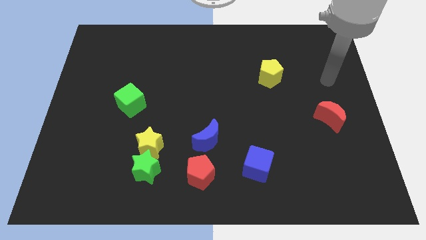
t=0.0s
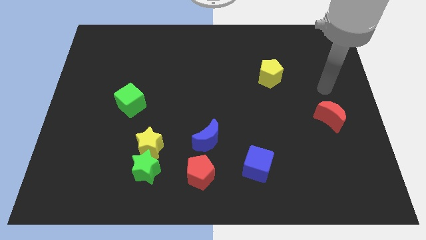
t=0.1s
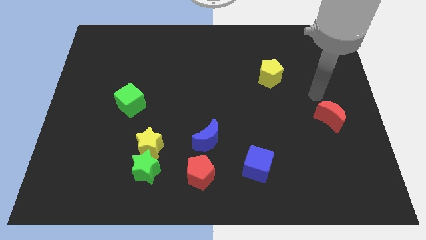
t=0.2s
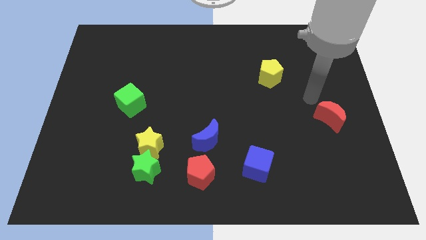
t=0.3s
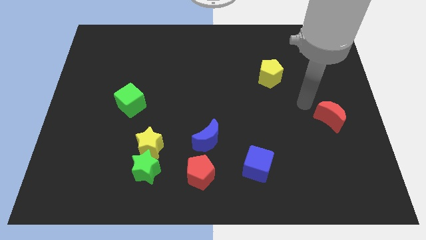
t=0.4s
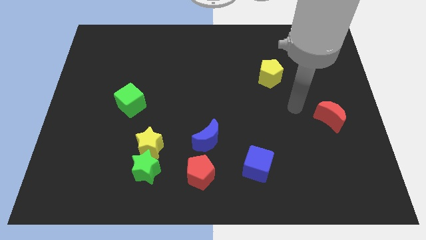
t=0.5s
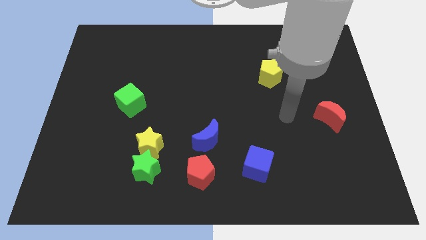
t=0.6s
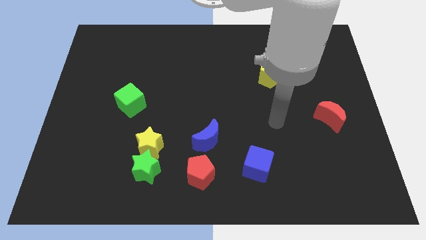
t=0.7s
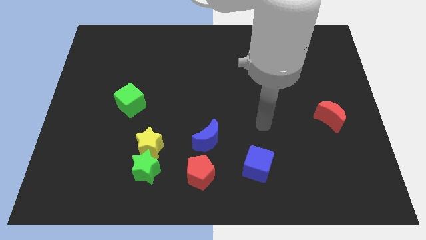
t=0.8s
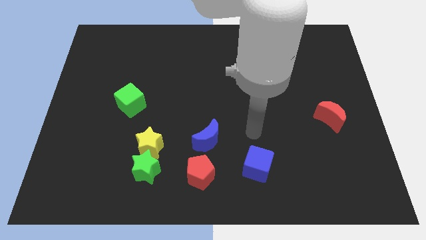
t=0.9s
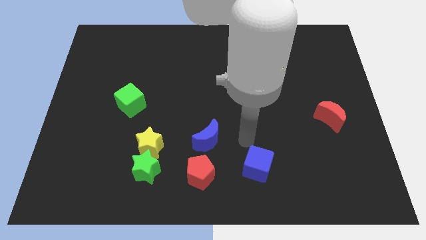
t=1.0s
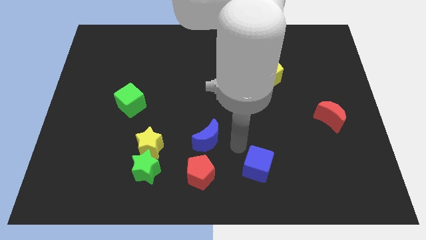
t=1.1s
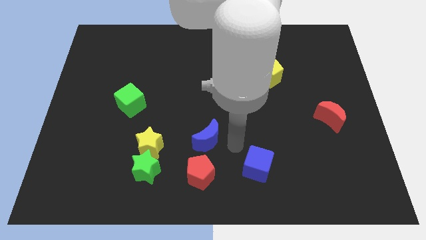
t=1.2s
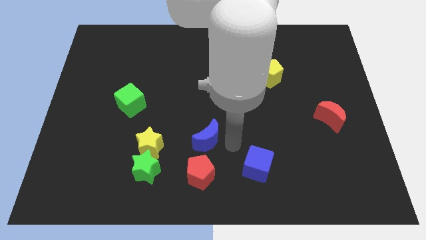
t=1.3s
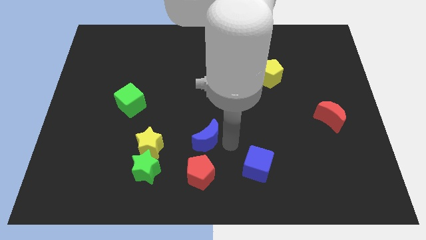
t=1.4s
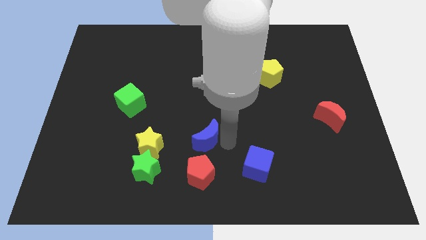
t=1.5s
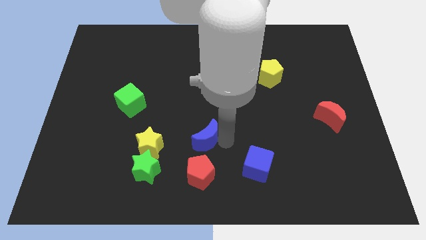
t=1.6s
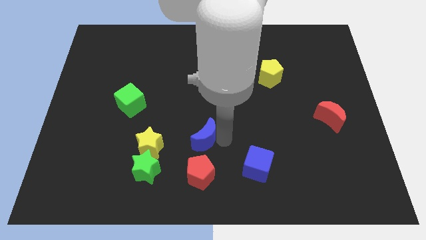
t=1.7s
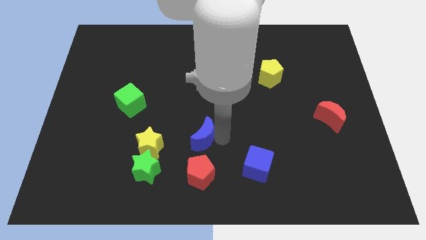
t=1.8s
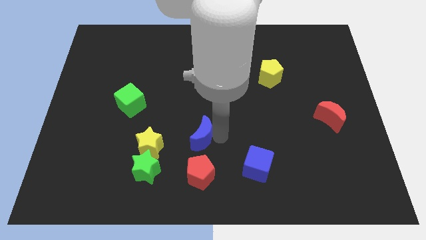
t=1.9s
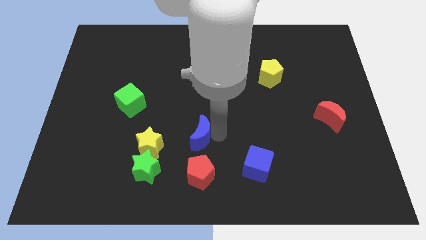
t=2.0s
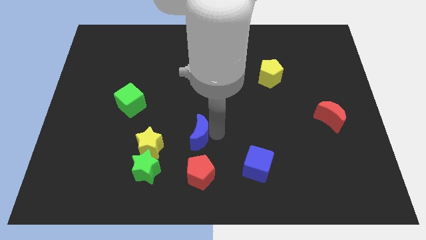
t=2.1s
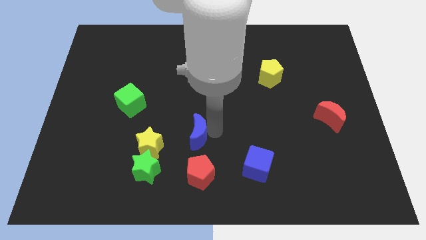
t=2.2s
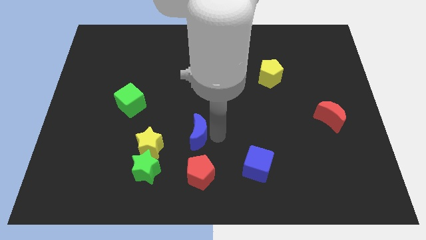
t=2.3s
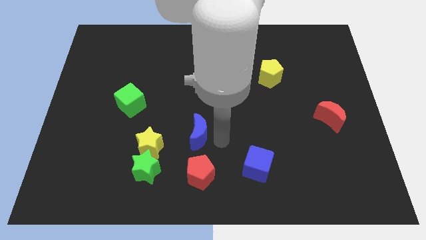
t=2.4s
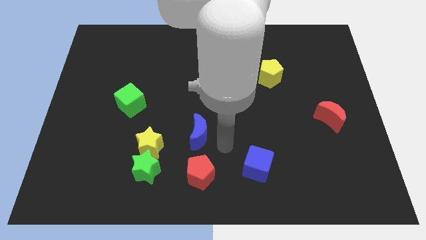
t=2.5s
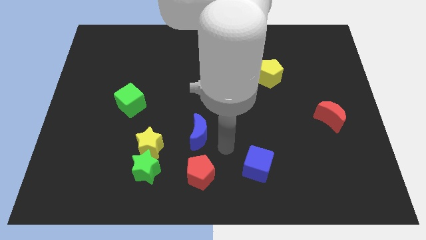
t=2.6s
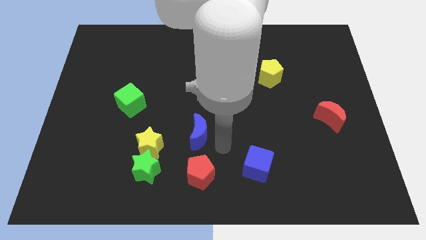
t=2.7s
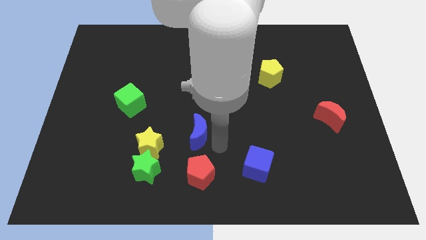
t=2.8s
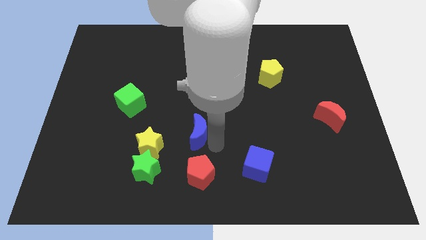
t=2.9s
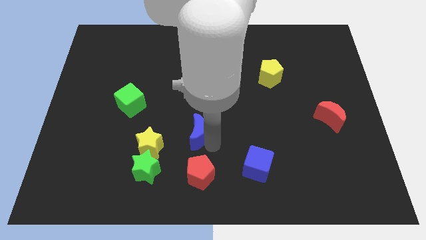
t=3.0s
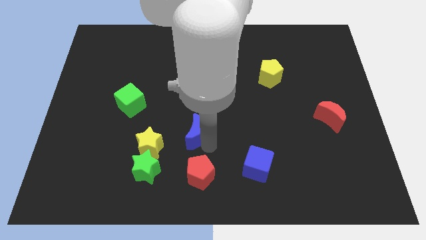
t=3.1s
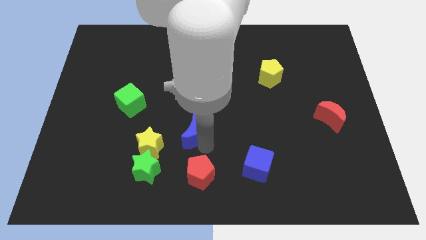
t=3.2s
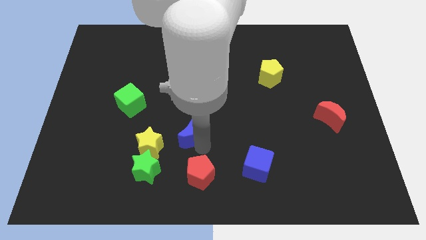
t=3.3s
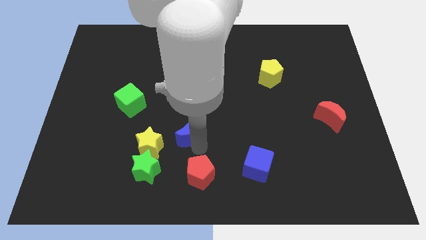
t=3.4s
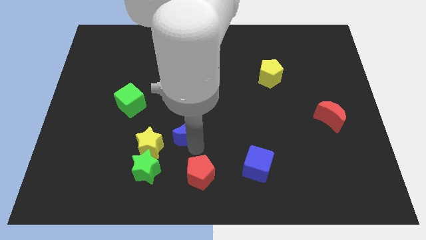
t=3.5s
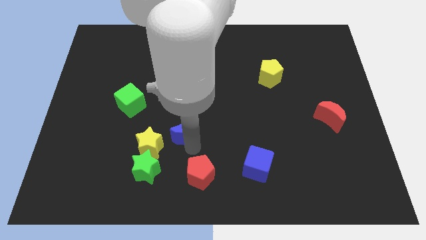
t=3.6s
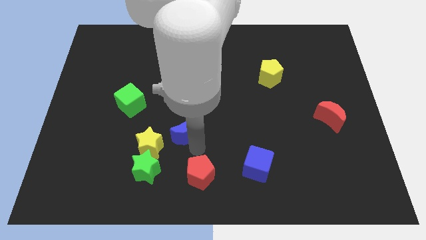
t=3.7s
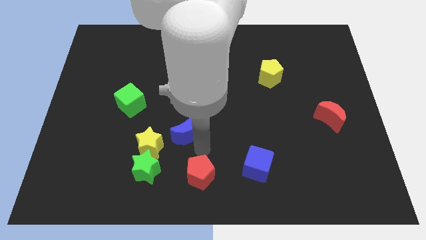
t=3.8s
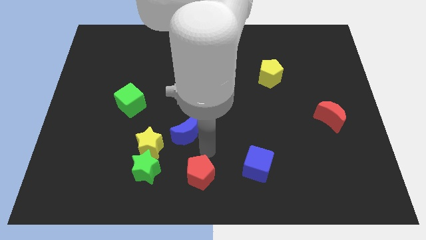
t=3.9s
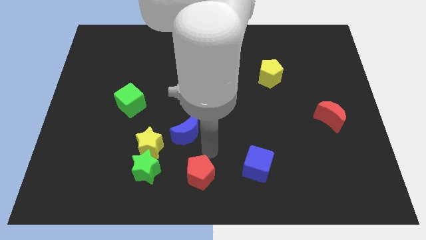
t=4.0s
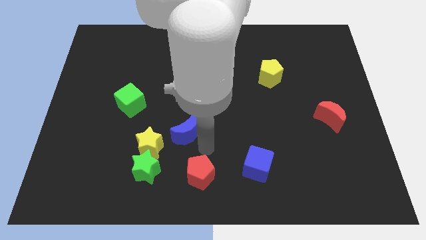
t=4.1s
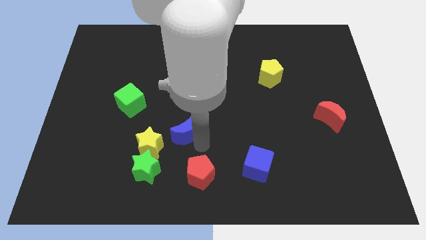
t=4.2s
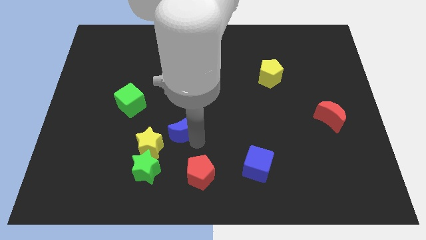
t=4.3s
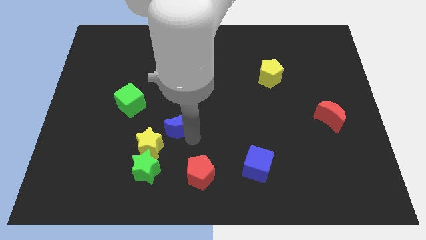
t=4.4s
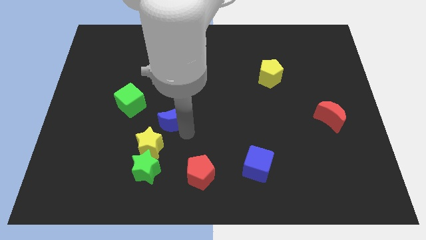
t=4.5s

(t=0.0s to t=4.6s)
move the blue moon to the top of the yellow star

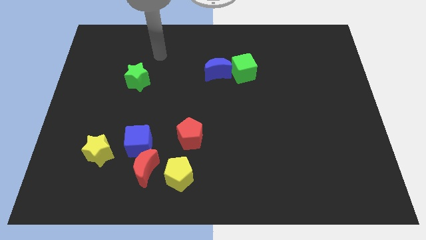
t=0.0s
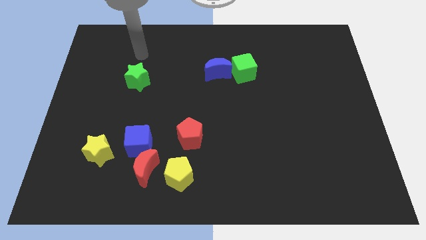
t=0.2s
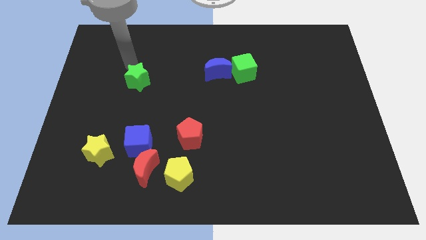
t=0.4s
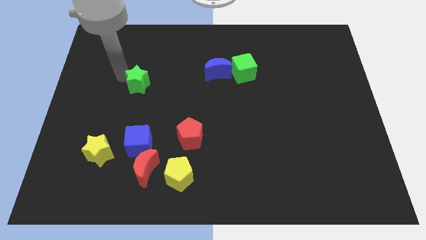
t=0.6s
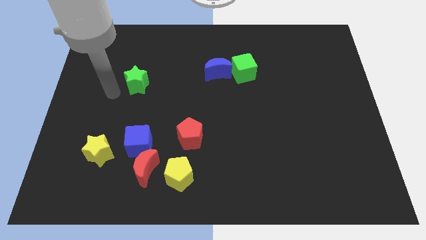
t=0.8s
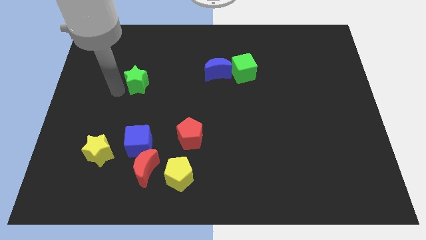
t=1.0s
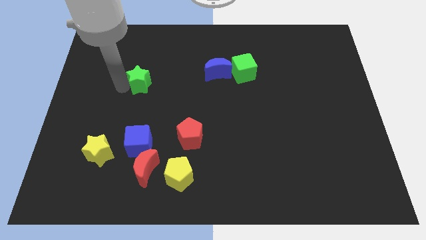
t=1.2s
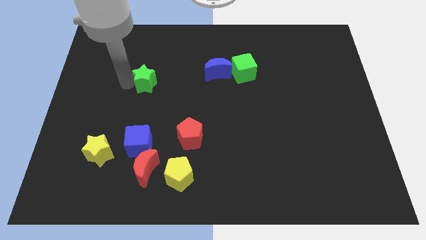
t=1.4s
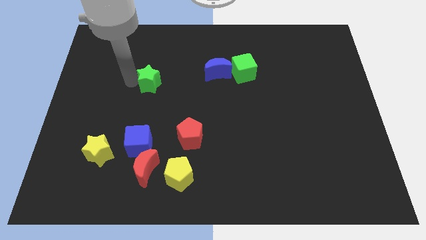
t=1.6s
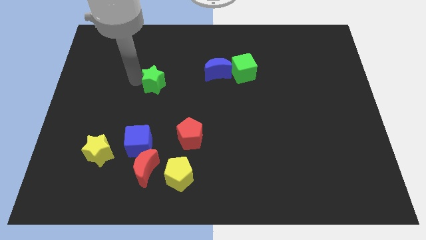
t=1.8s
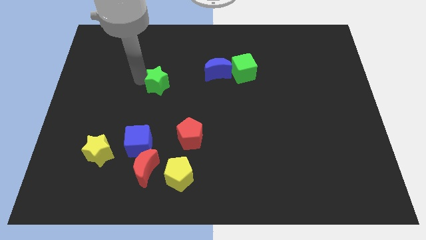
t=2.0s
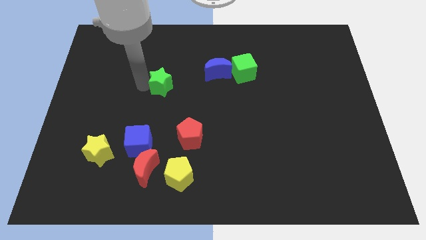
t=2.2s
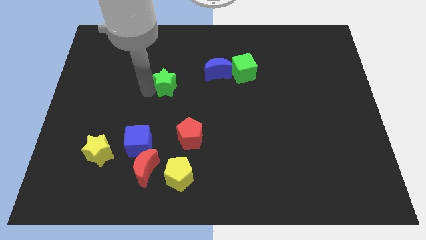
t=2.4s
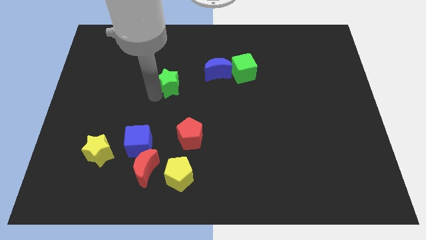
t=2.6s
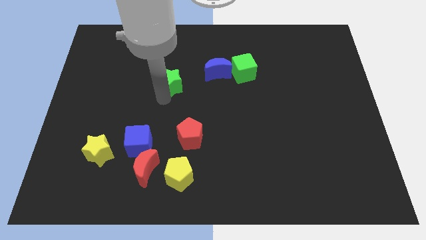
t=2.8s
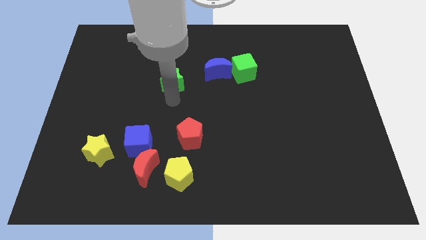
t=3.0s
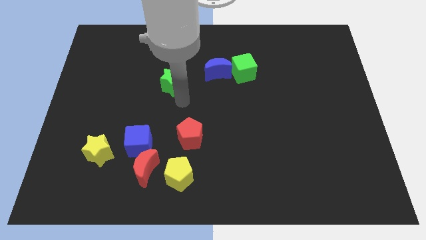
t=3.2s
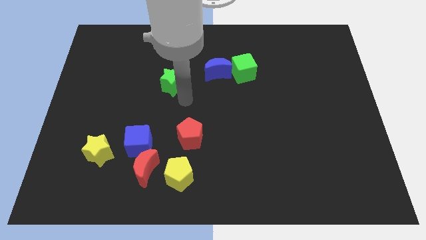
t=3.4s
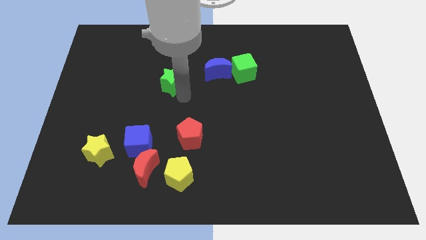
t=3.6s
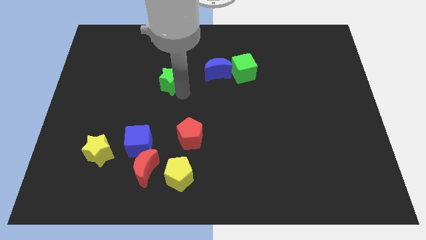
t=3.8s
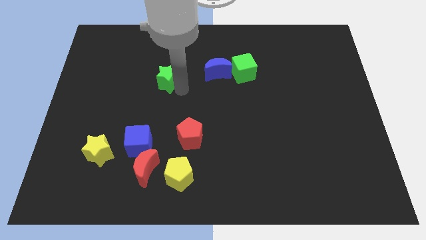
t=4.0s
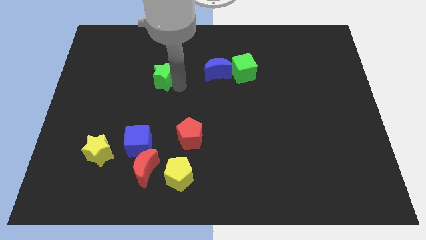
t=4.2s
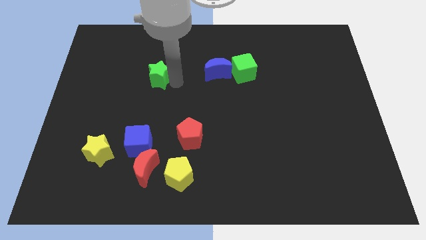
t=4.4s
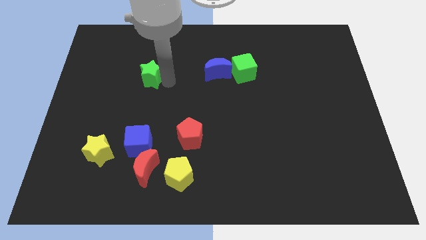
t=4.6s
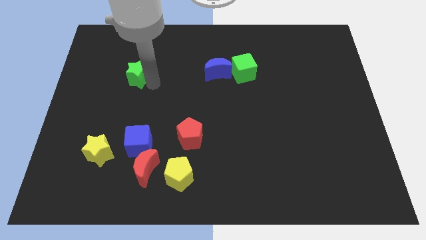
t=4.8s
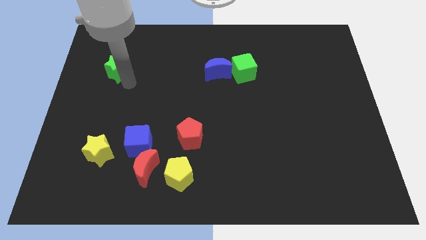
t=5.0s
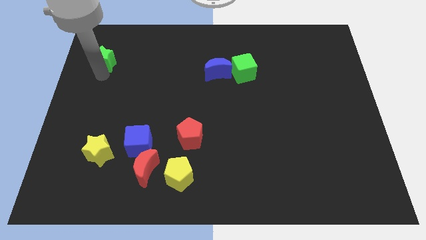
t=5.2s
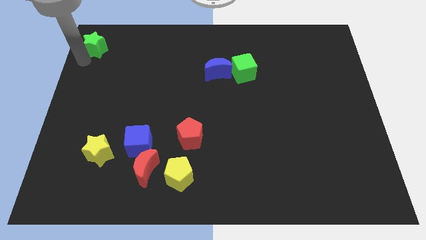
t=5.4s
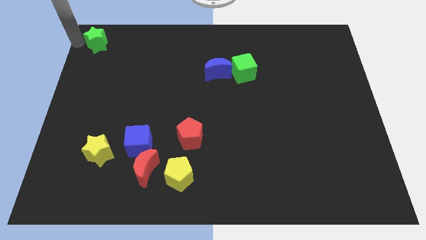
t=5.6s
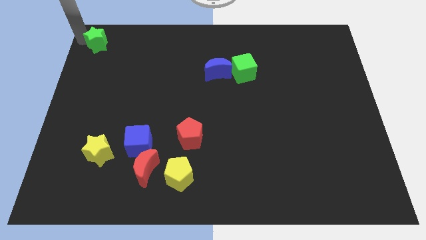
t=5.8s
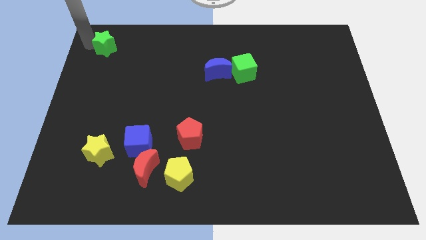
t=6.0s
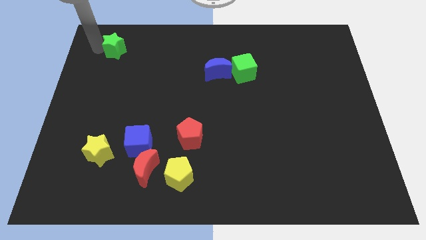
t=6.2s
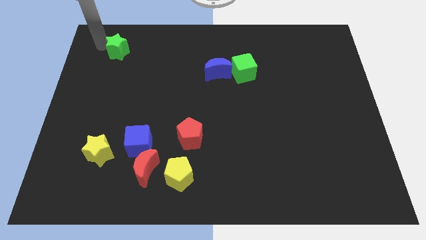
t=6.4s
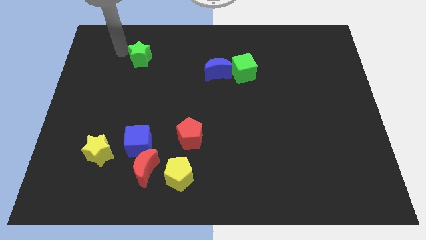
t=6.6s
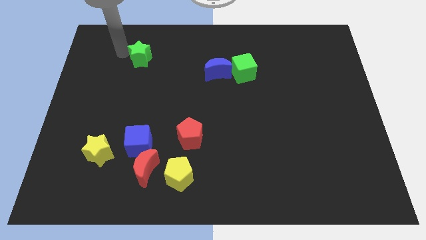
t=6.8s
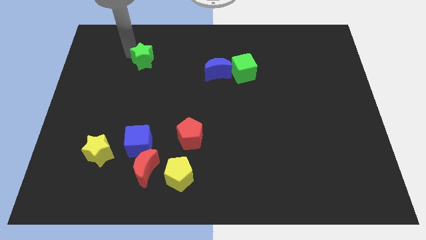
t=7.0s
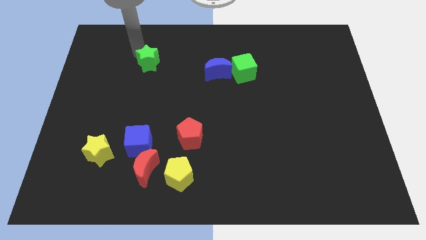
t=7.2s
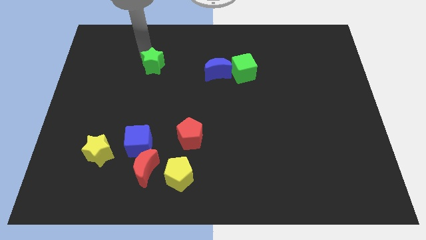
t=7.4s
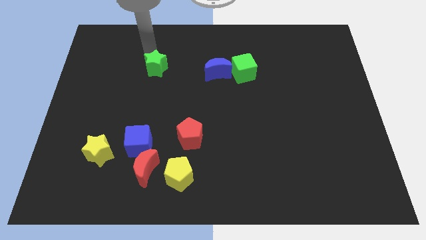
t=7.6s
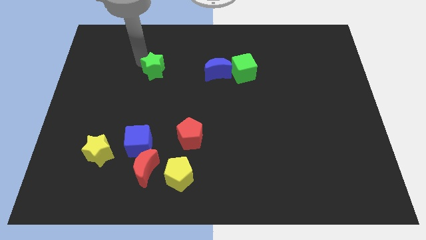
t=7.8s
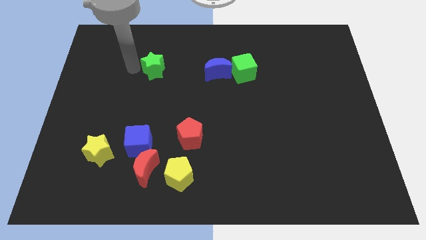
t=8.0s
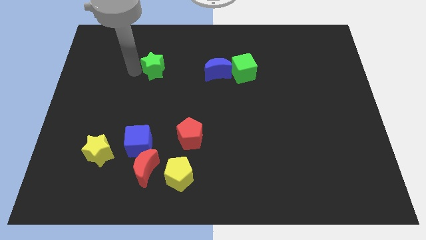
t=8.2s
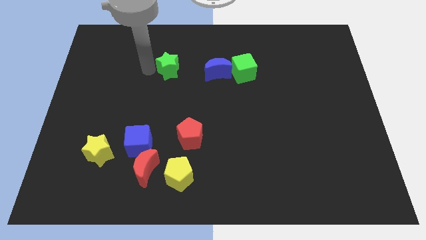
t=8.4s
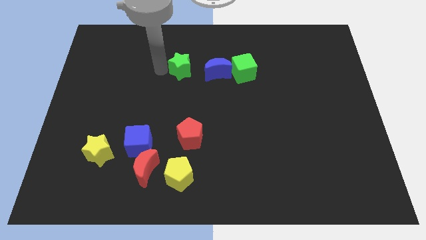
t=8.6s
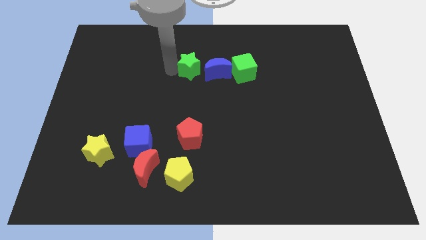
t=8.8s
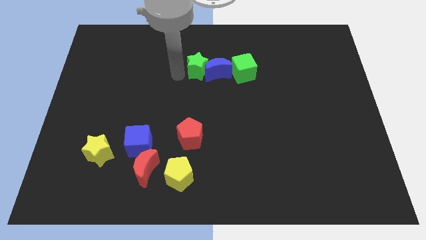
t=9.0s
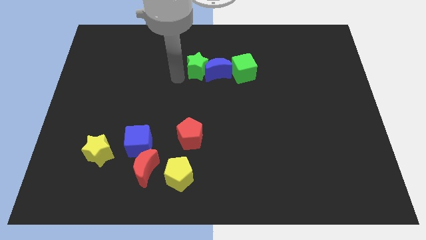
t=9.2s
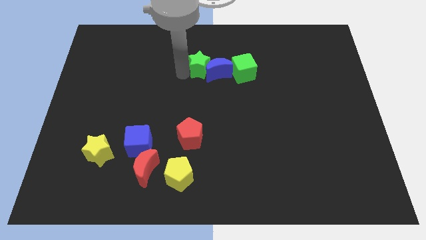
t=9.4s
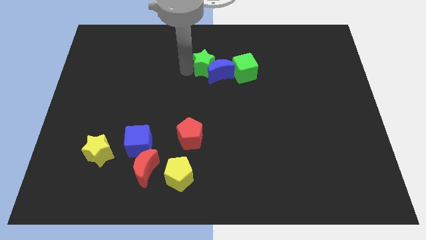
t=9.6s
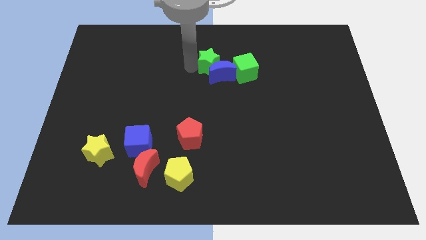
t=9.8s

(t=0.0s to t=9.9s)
push the green star diagonally up and to the left of the green cube
